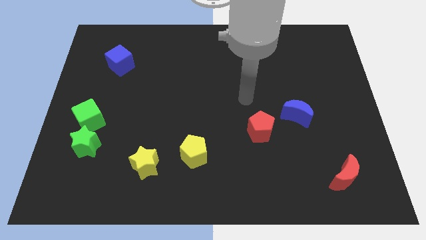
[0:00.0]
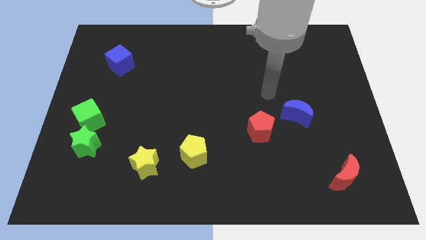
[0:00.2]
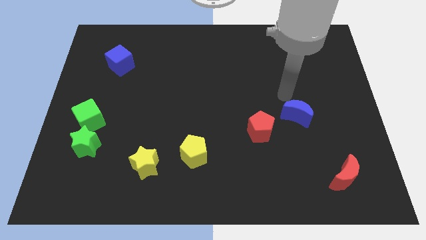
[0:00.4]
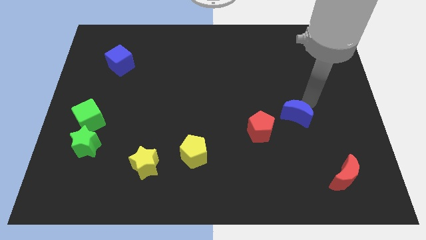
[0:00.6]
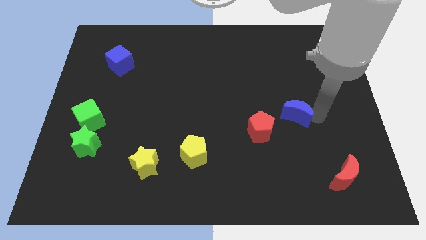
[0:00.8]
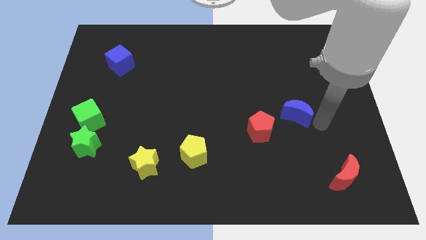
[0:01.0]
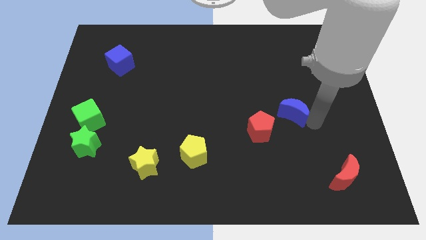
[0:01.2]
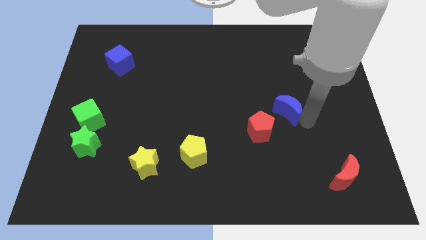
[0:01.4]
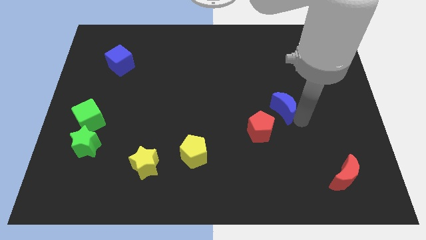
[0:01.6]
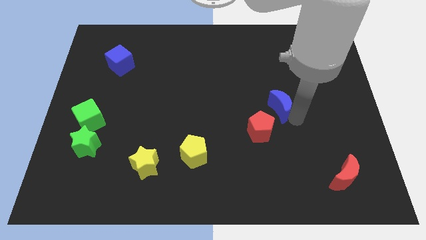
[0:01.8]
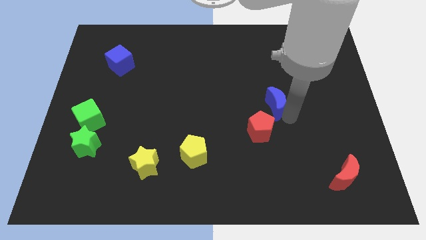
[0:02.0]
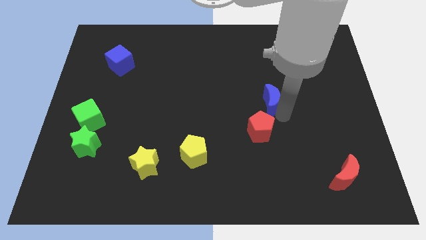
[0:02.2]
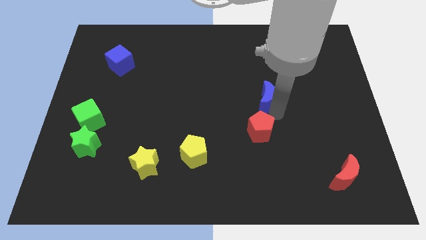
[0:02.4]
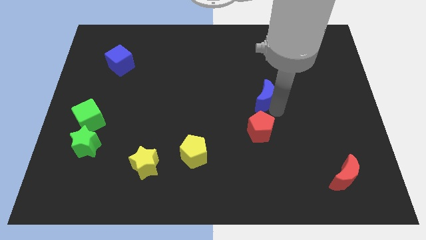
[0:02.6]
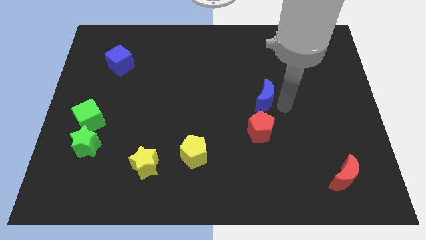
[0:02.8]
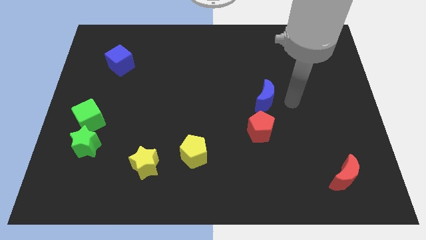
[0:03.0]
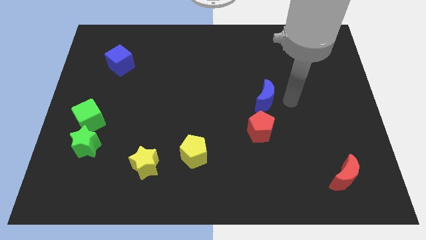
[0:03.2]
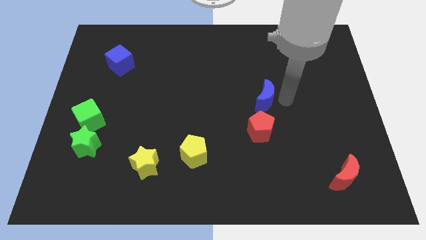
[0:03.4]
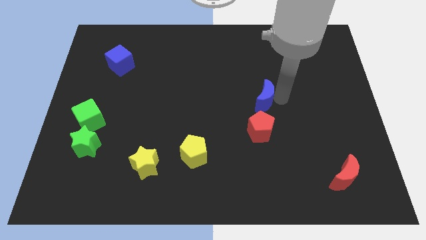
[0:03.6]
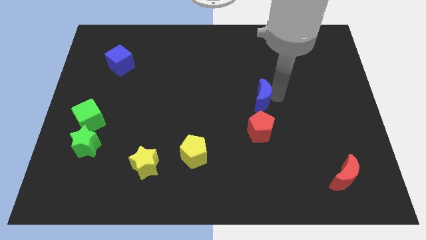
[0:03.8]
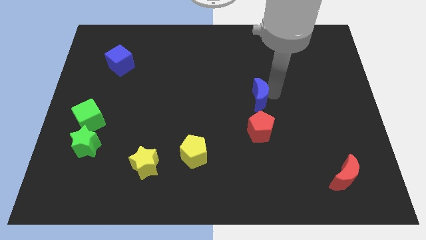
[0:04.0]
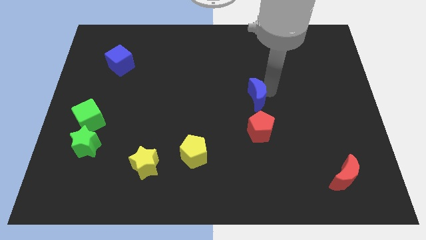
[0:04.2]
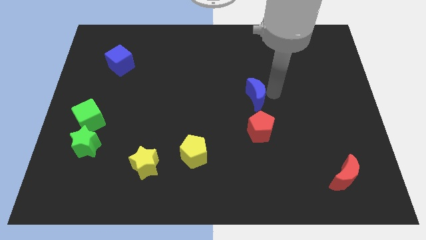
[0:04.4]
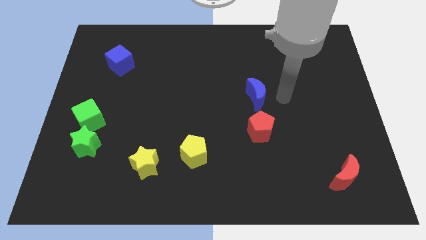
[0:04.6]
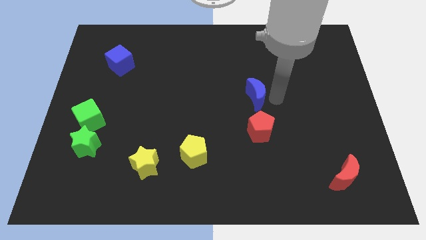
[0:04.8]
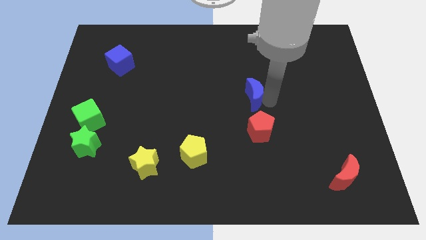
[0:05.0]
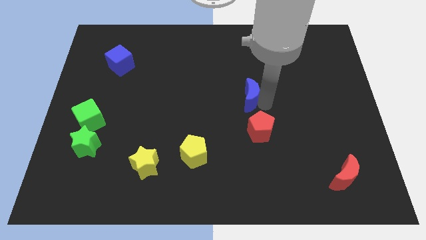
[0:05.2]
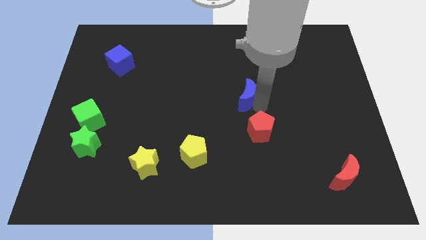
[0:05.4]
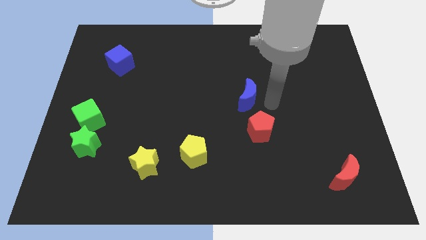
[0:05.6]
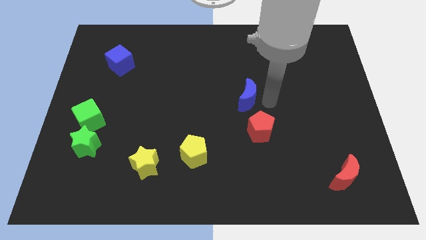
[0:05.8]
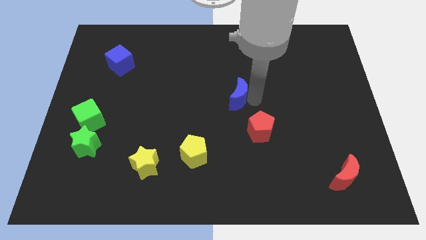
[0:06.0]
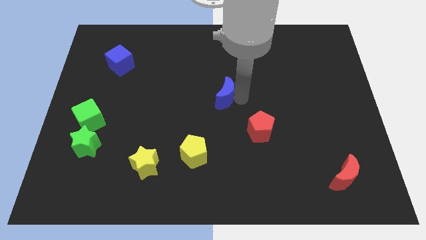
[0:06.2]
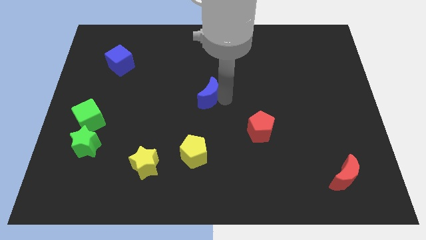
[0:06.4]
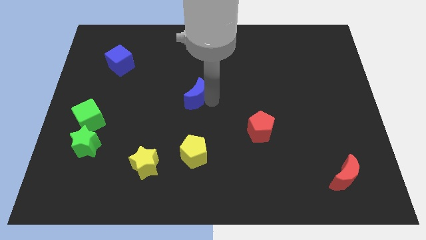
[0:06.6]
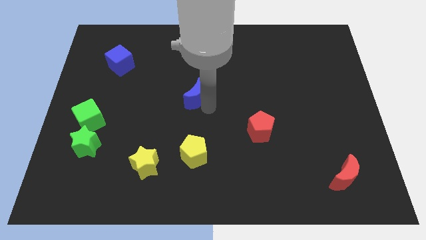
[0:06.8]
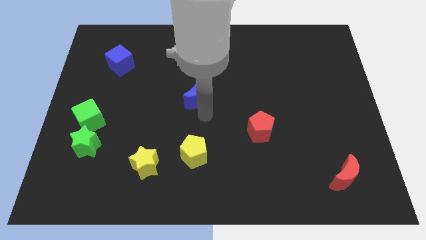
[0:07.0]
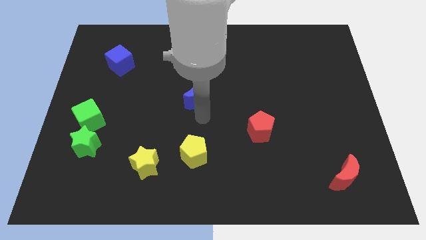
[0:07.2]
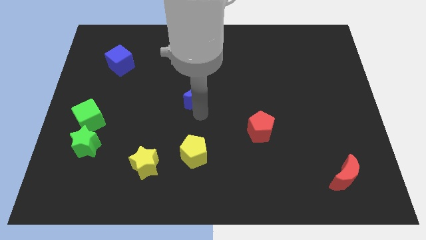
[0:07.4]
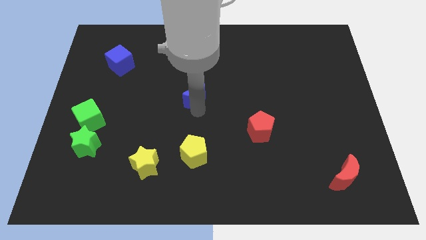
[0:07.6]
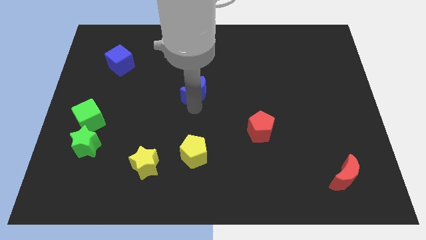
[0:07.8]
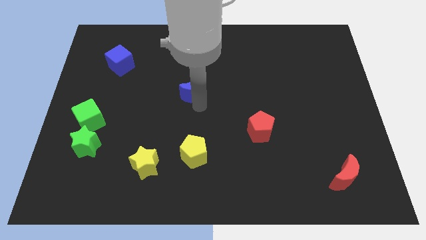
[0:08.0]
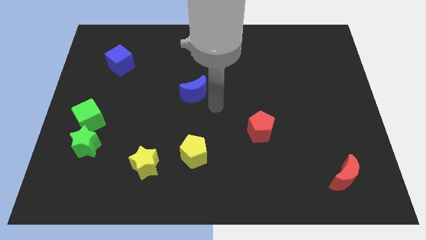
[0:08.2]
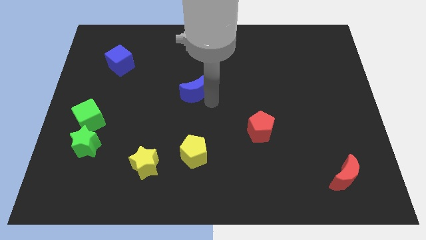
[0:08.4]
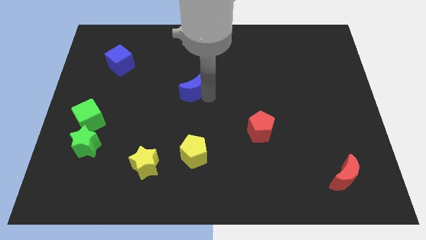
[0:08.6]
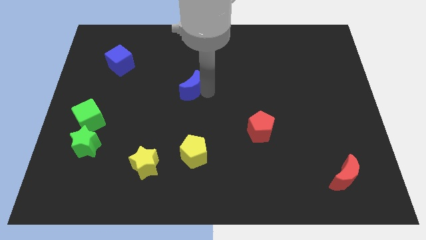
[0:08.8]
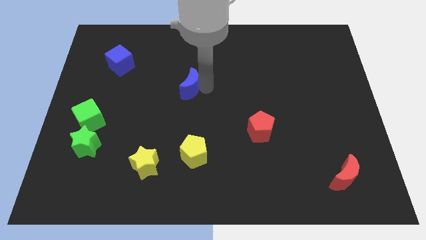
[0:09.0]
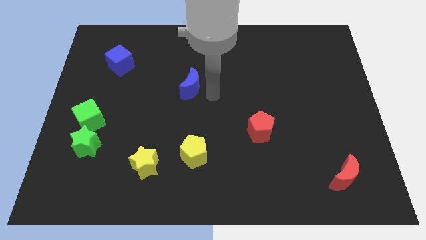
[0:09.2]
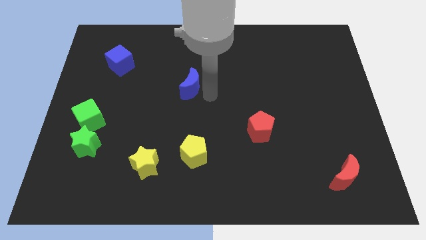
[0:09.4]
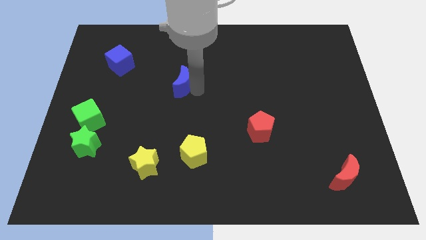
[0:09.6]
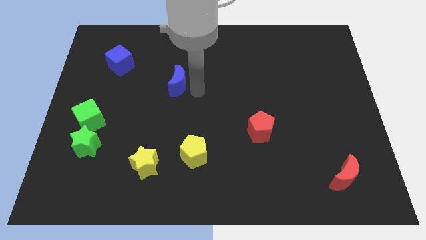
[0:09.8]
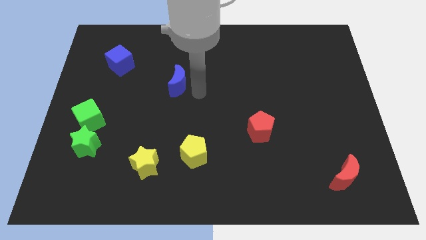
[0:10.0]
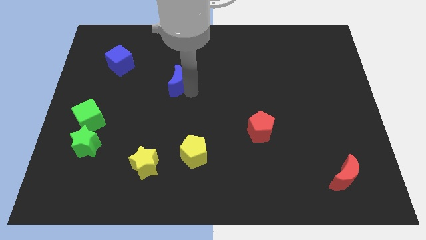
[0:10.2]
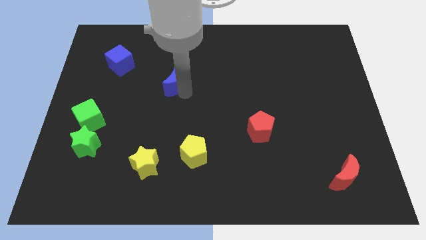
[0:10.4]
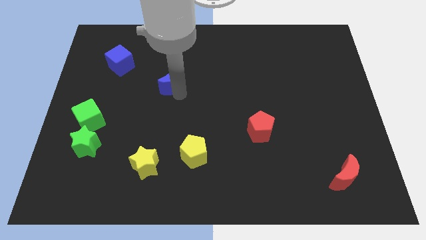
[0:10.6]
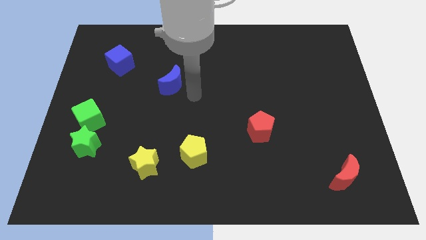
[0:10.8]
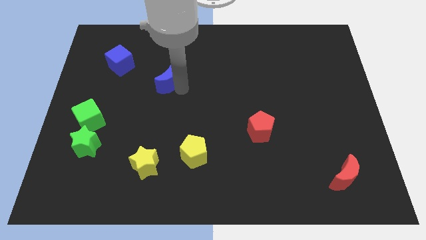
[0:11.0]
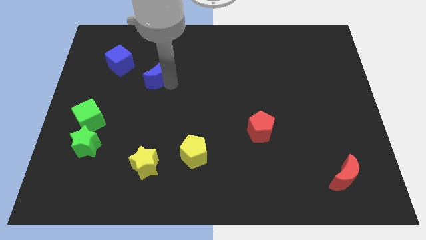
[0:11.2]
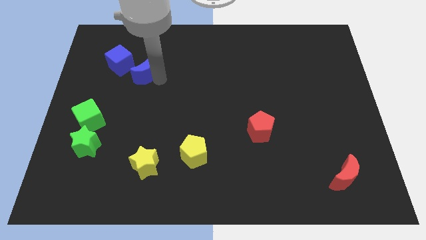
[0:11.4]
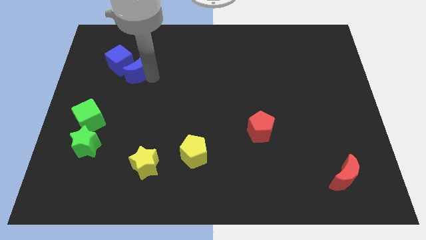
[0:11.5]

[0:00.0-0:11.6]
move the blue moon close to the blue cube
